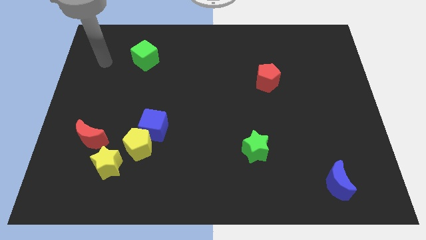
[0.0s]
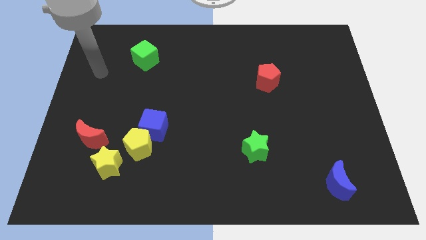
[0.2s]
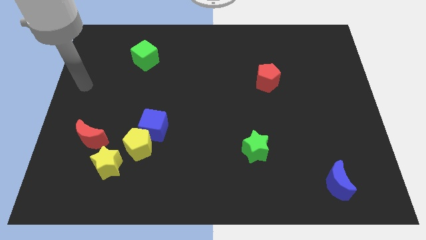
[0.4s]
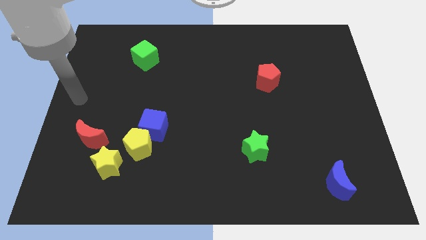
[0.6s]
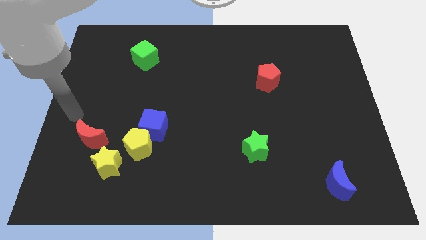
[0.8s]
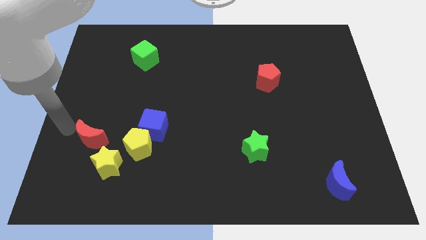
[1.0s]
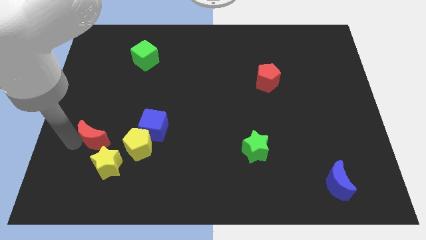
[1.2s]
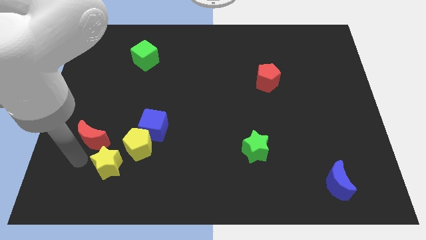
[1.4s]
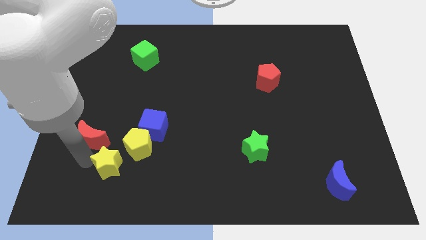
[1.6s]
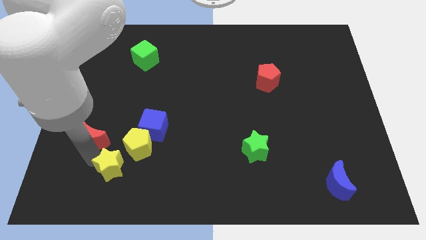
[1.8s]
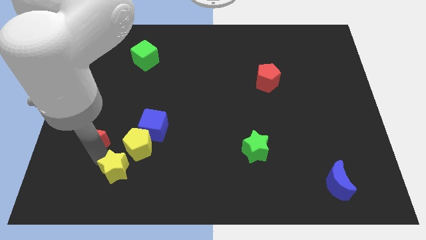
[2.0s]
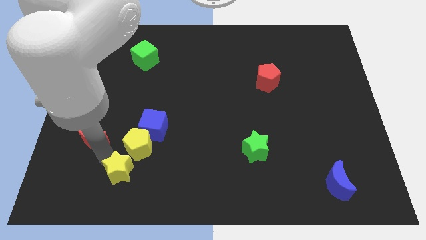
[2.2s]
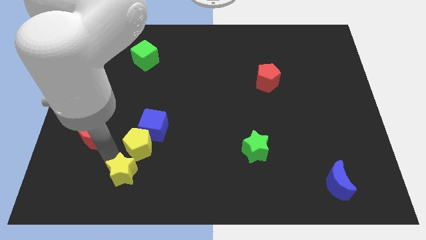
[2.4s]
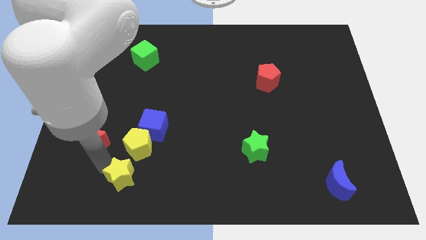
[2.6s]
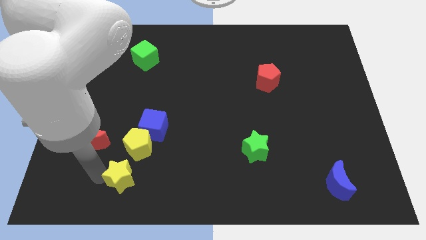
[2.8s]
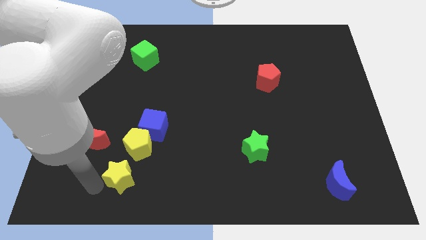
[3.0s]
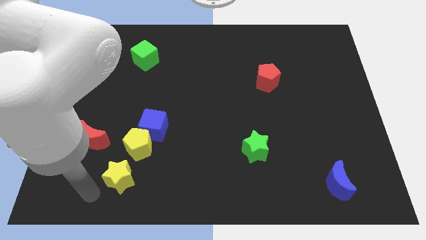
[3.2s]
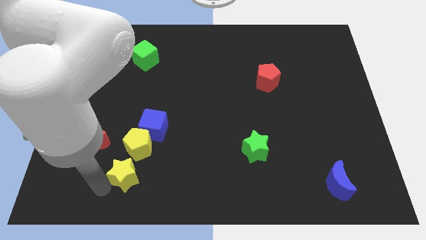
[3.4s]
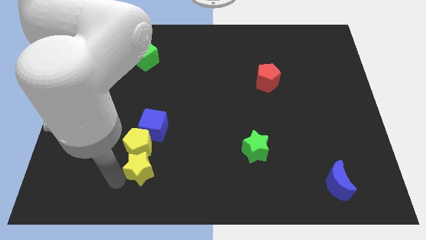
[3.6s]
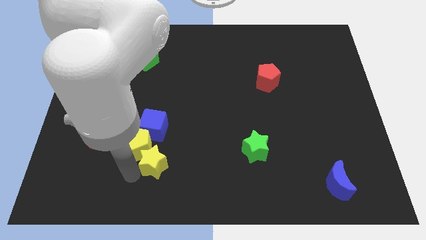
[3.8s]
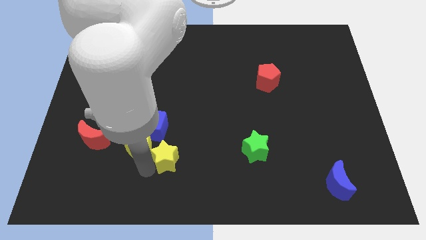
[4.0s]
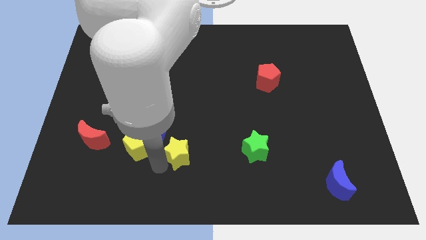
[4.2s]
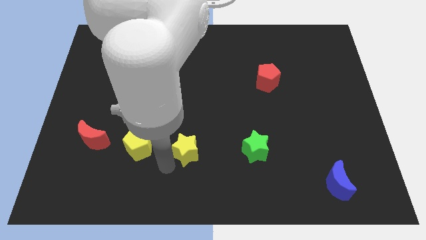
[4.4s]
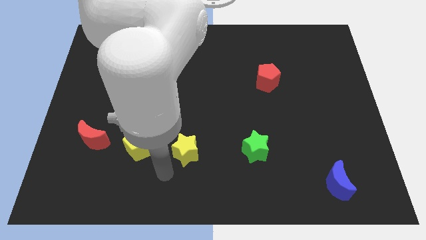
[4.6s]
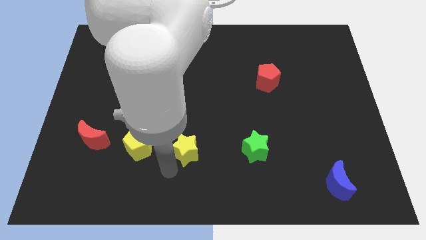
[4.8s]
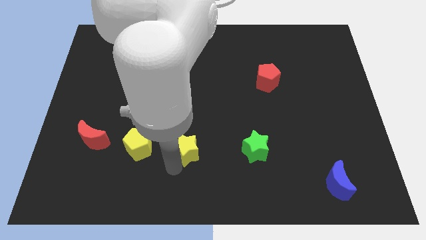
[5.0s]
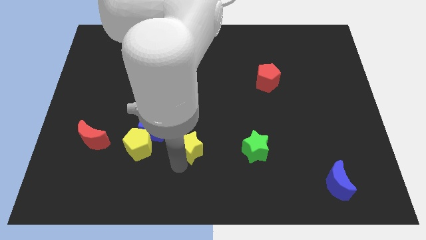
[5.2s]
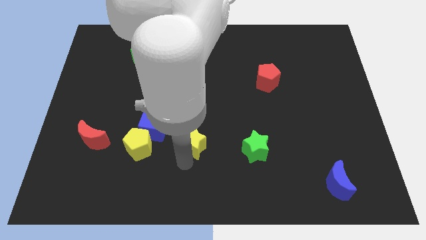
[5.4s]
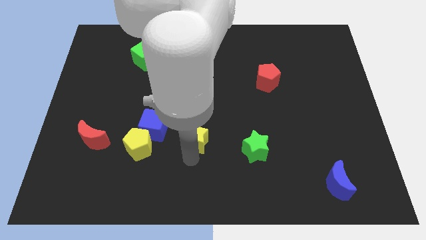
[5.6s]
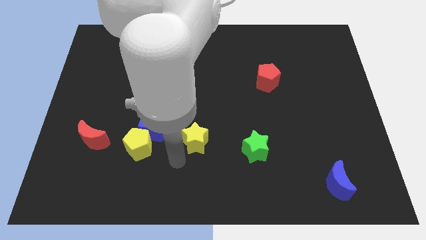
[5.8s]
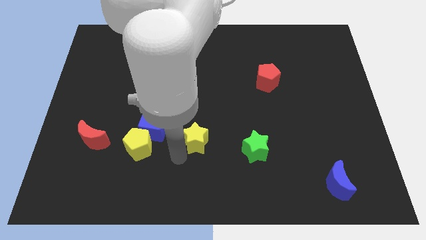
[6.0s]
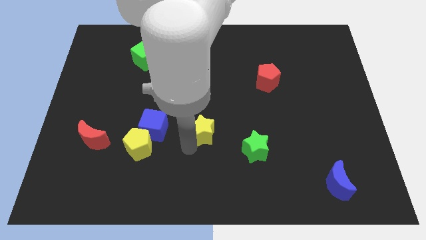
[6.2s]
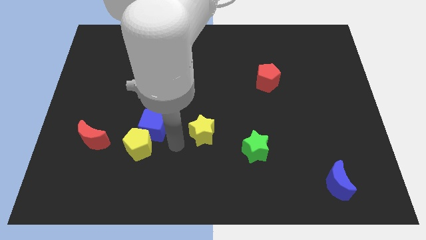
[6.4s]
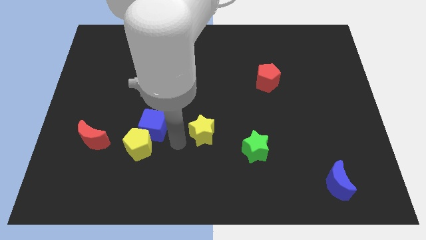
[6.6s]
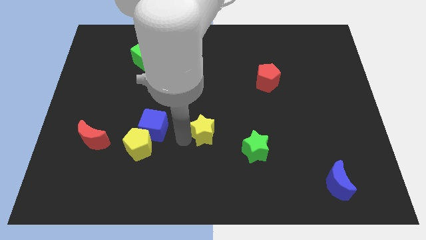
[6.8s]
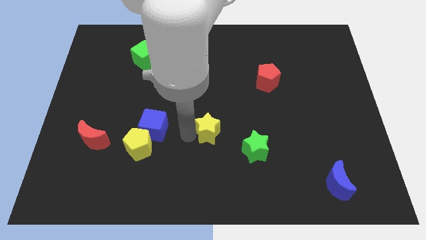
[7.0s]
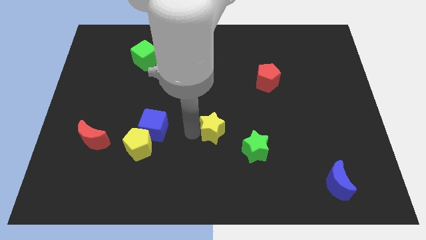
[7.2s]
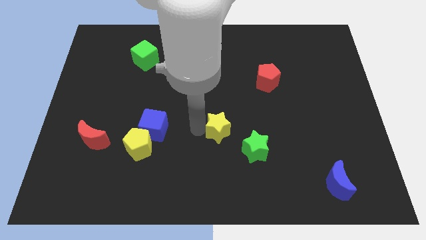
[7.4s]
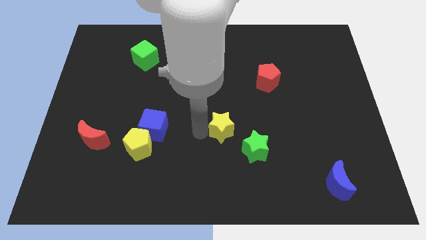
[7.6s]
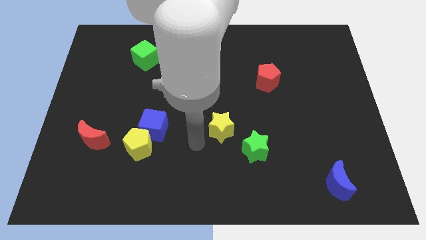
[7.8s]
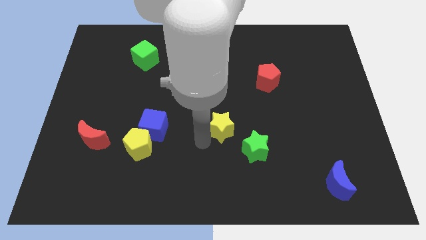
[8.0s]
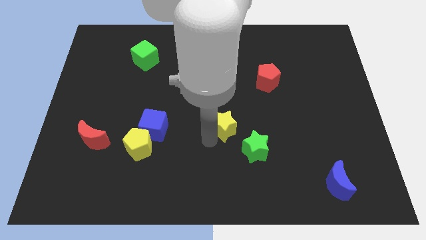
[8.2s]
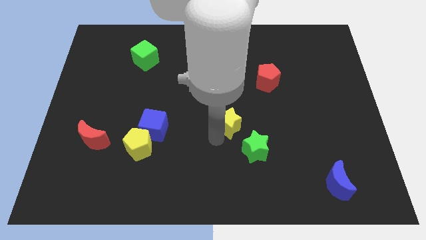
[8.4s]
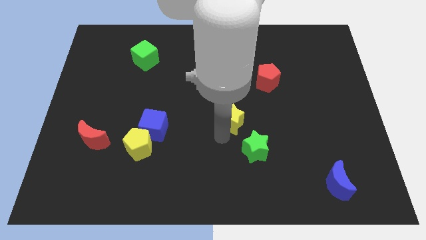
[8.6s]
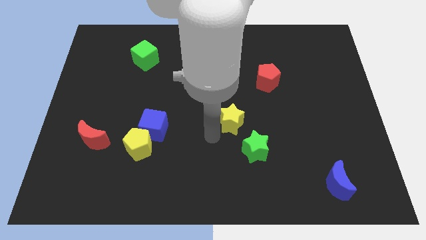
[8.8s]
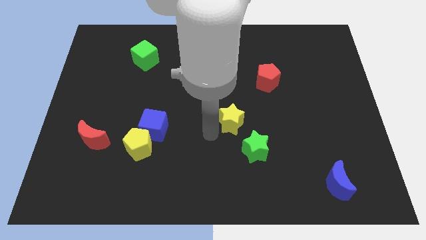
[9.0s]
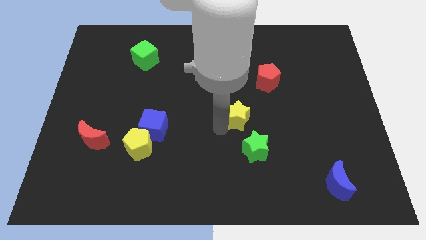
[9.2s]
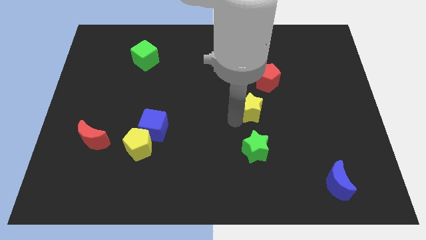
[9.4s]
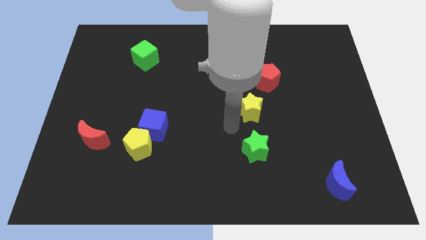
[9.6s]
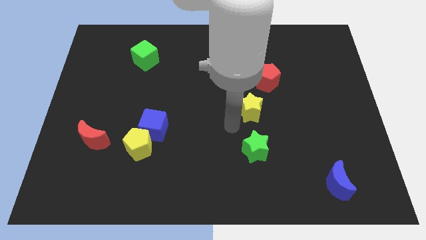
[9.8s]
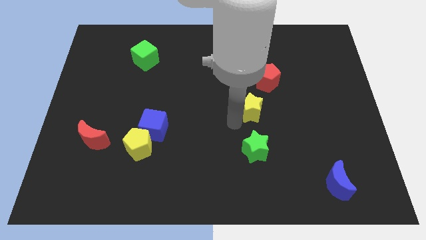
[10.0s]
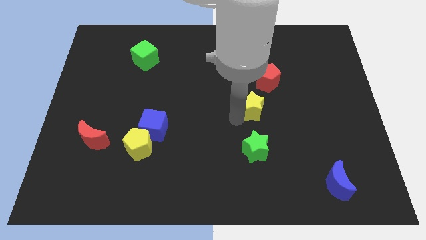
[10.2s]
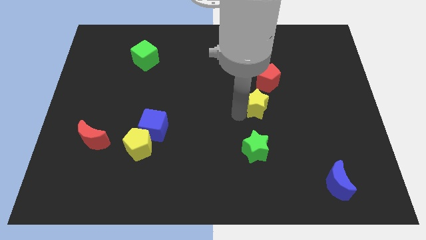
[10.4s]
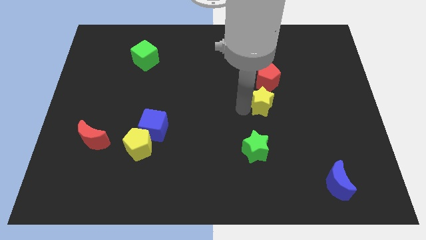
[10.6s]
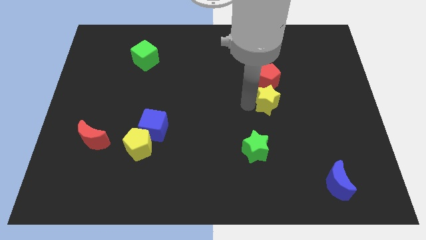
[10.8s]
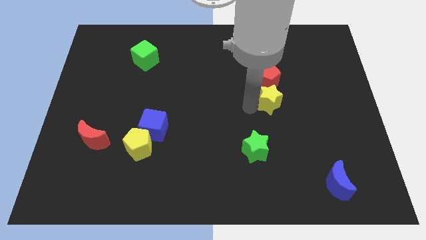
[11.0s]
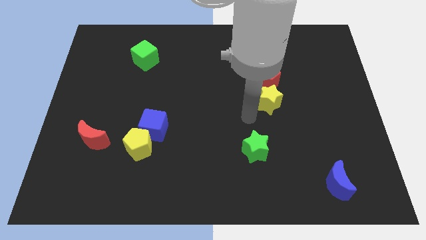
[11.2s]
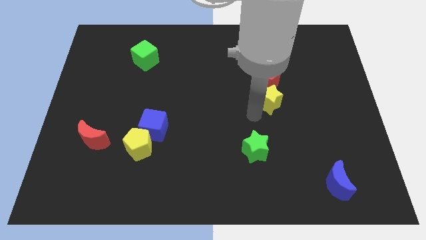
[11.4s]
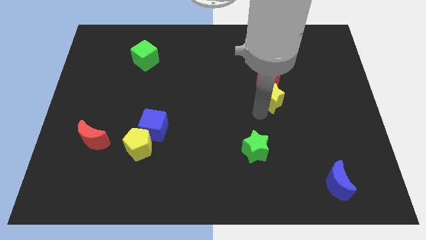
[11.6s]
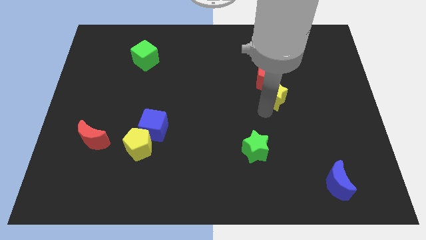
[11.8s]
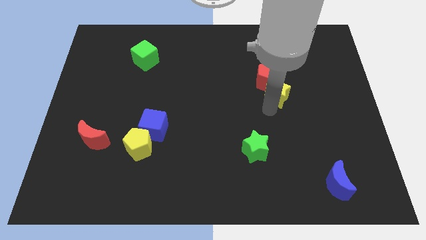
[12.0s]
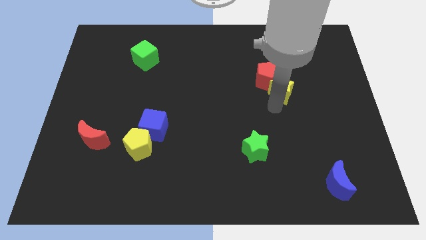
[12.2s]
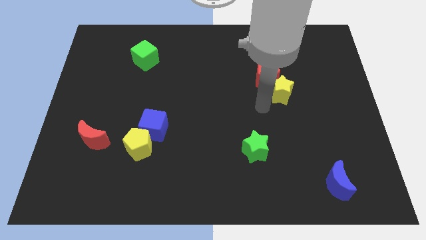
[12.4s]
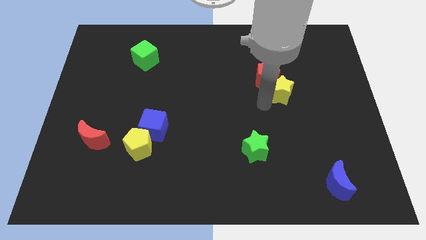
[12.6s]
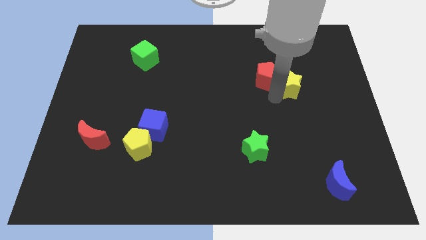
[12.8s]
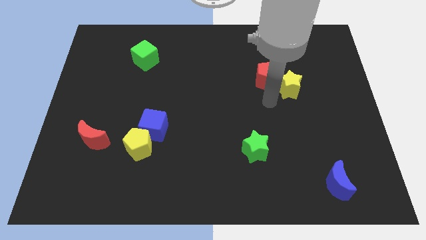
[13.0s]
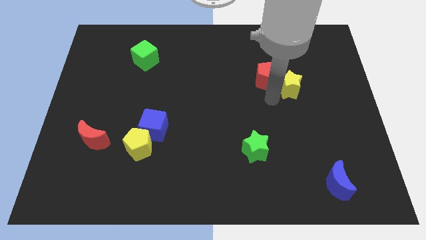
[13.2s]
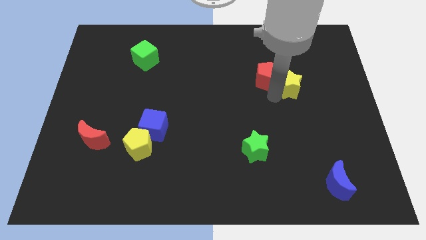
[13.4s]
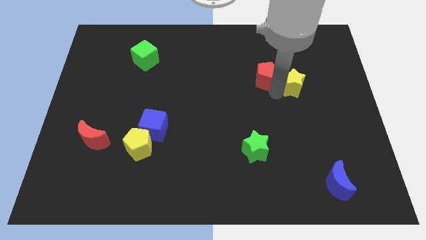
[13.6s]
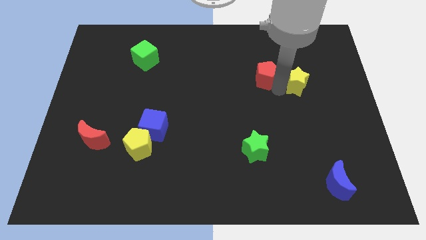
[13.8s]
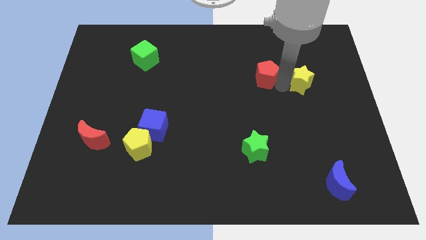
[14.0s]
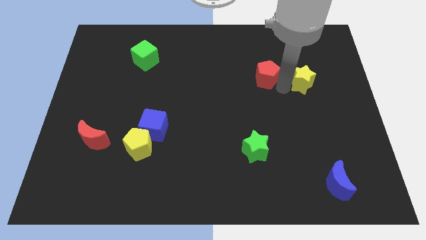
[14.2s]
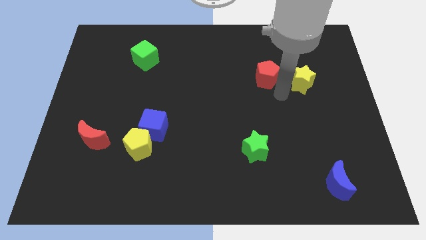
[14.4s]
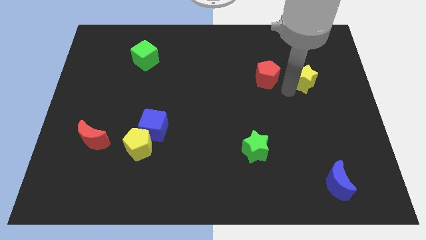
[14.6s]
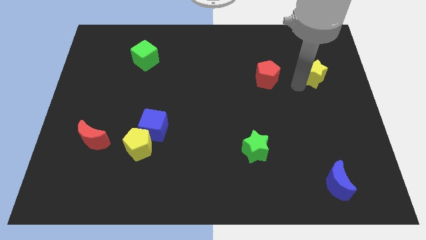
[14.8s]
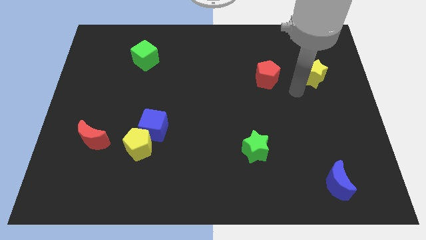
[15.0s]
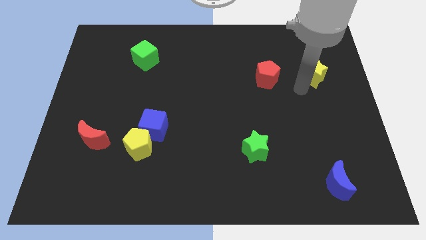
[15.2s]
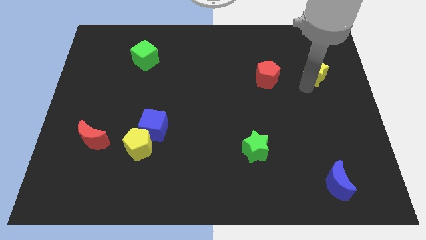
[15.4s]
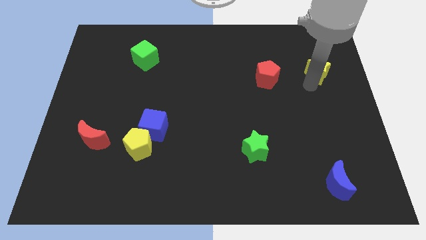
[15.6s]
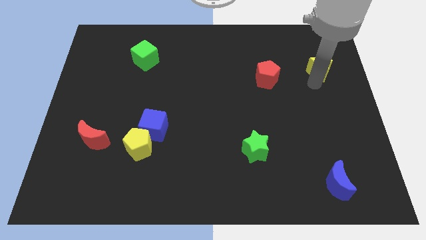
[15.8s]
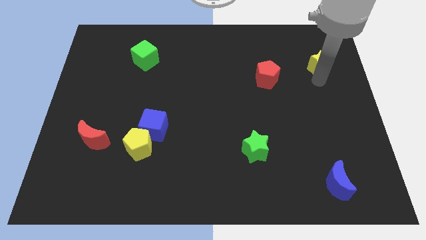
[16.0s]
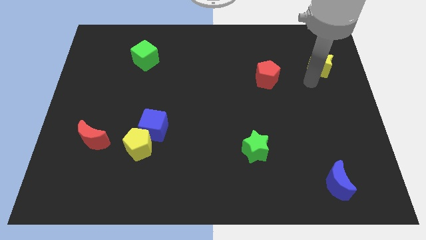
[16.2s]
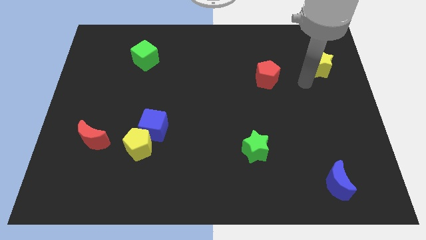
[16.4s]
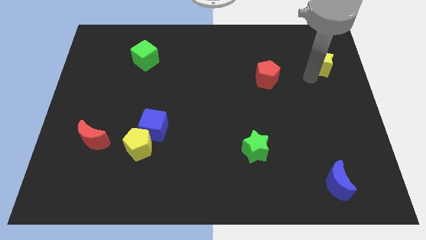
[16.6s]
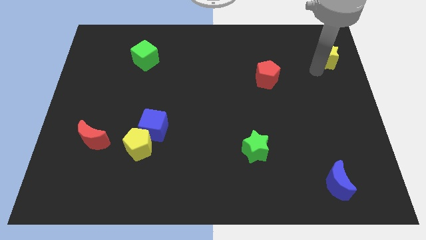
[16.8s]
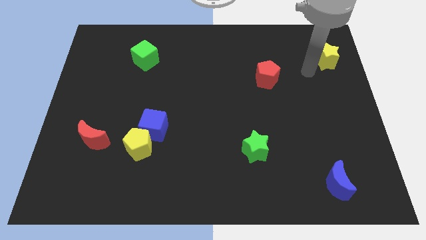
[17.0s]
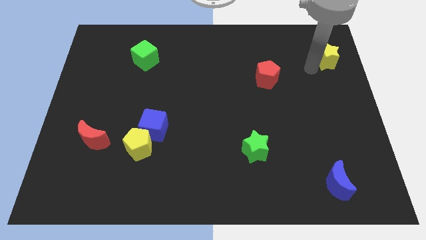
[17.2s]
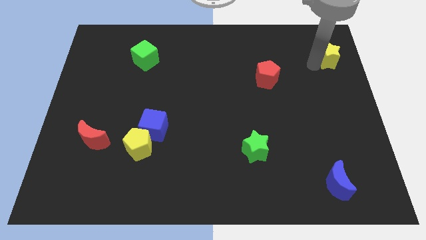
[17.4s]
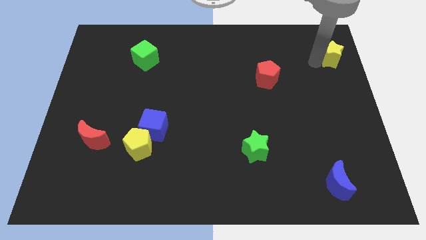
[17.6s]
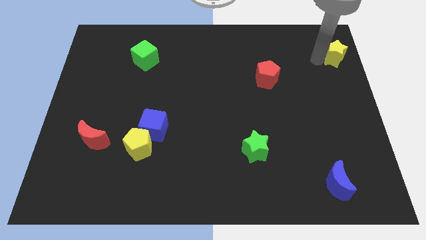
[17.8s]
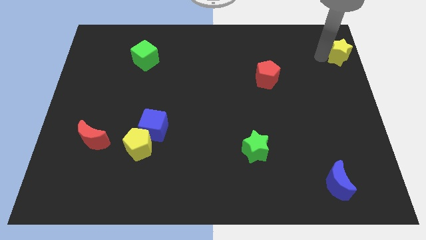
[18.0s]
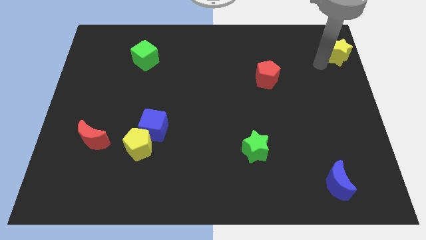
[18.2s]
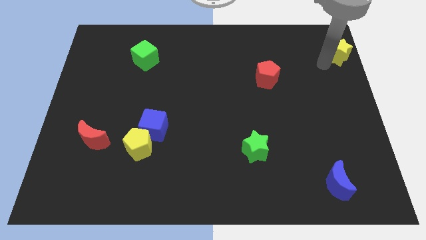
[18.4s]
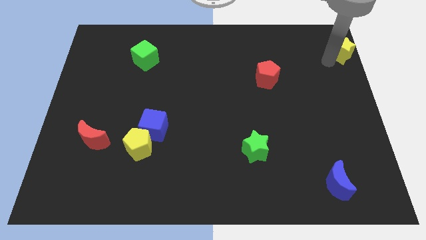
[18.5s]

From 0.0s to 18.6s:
push the yellow star to the upper right corner
